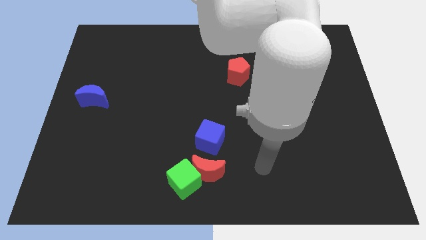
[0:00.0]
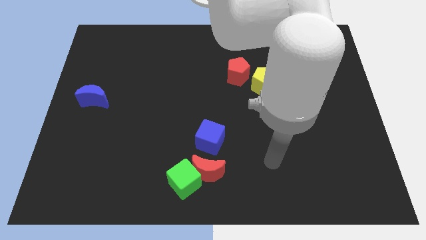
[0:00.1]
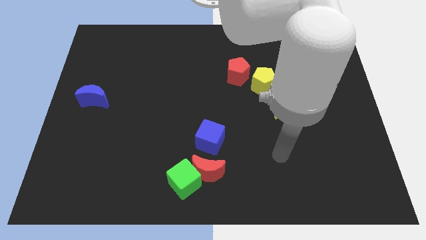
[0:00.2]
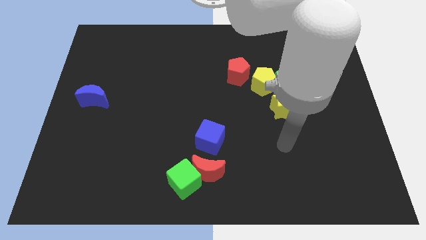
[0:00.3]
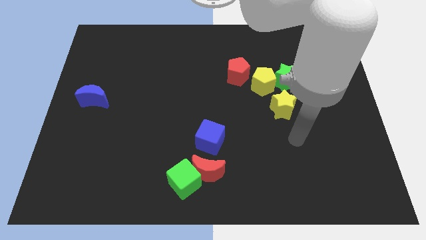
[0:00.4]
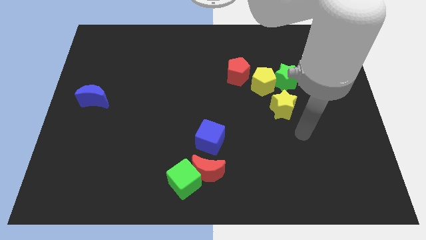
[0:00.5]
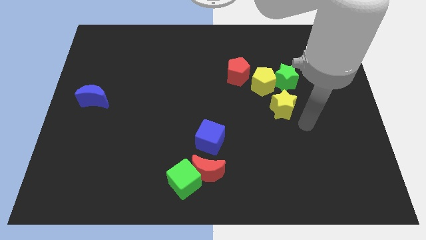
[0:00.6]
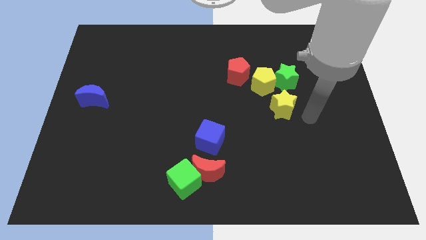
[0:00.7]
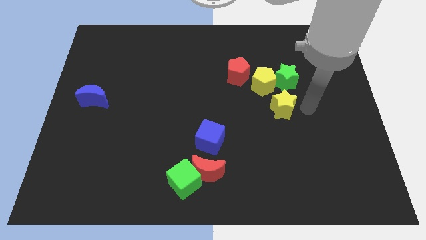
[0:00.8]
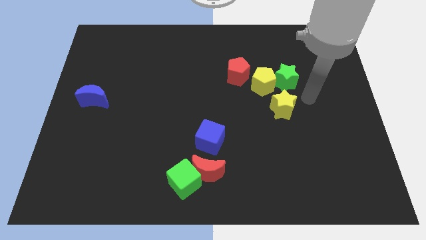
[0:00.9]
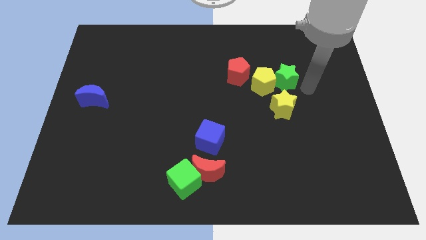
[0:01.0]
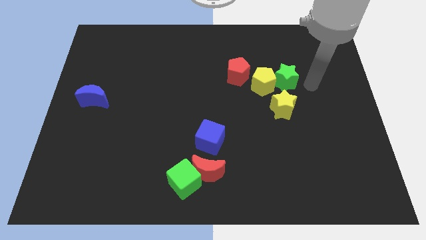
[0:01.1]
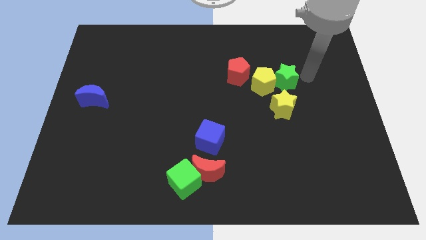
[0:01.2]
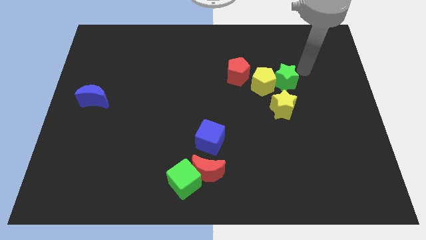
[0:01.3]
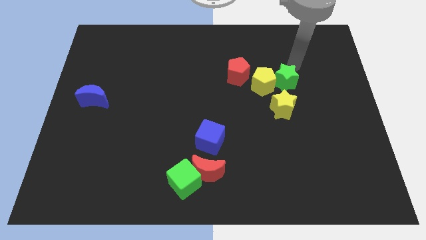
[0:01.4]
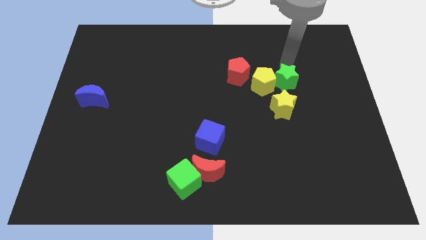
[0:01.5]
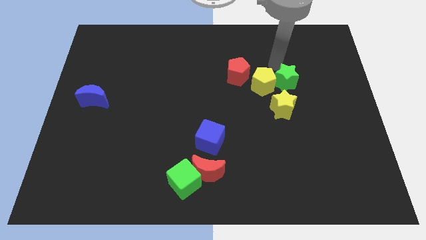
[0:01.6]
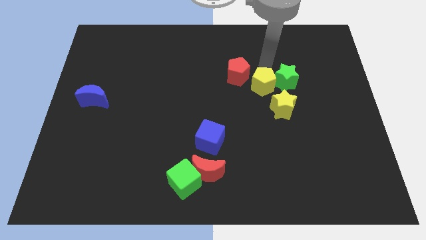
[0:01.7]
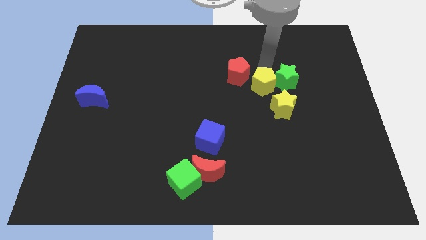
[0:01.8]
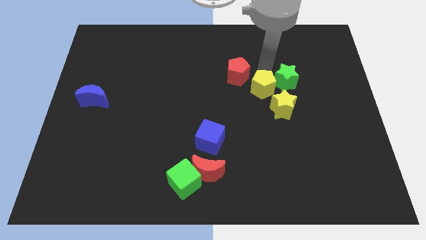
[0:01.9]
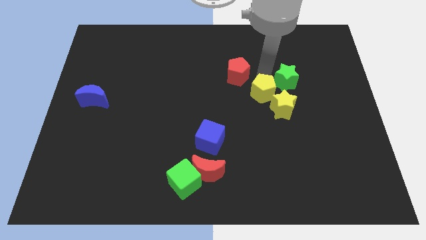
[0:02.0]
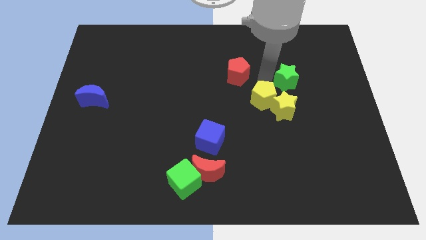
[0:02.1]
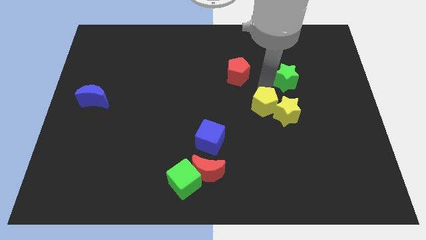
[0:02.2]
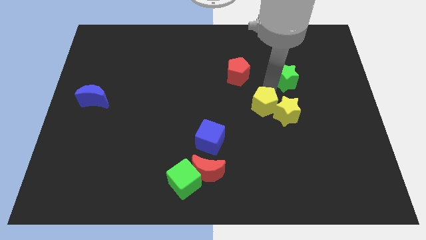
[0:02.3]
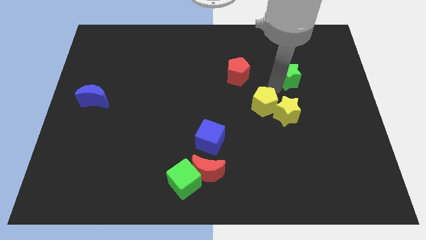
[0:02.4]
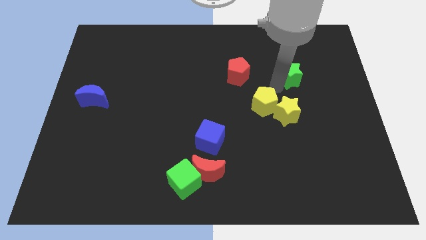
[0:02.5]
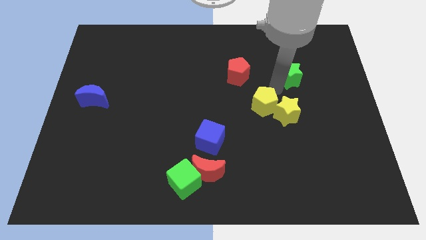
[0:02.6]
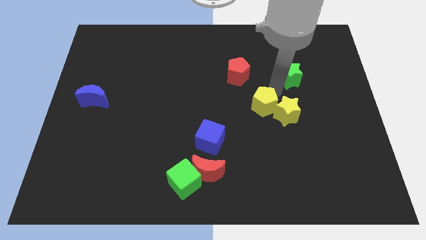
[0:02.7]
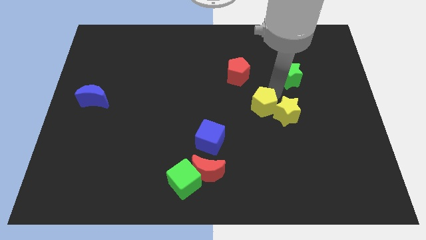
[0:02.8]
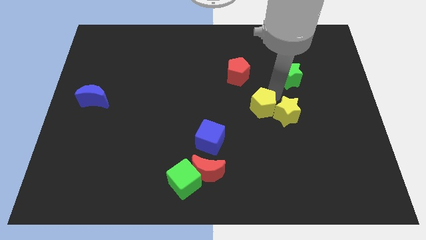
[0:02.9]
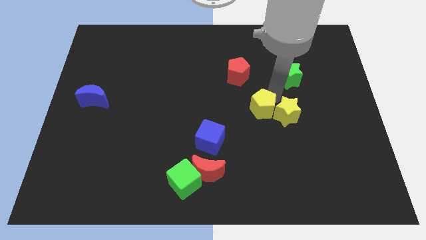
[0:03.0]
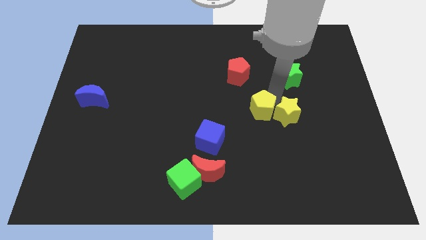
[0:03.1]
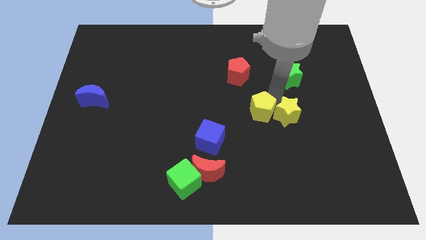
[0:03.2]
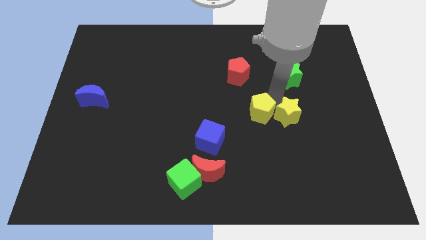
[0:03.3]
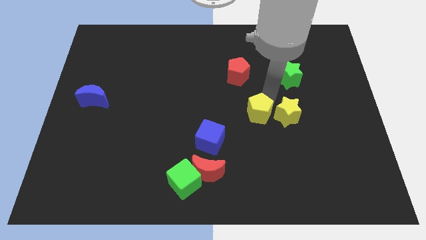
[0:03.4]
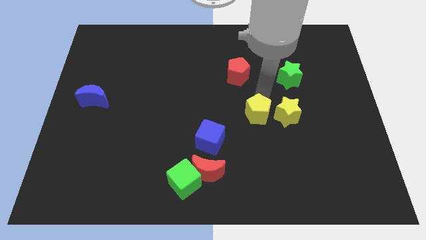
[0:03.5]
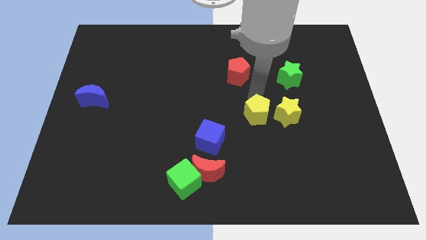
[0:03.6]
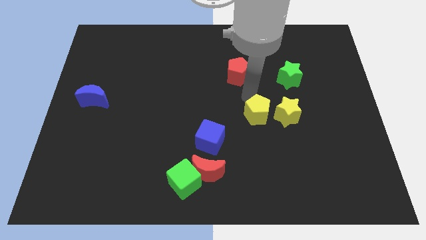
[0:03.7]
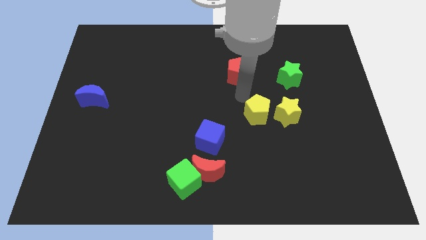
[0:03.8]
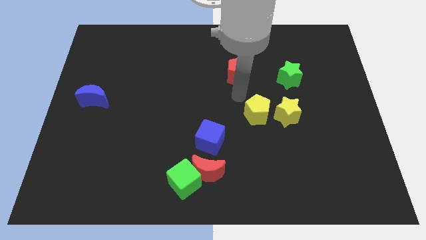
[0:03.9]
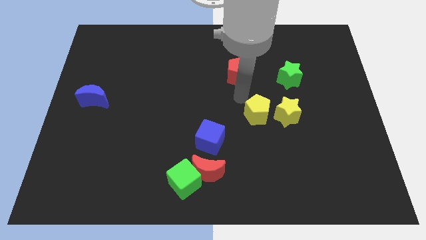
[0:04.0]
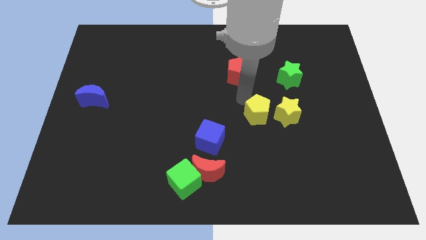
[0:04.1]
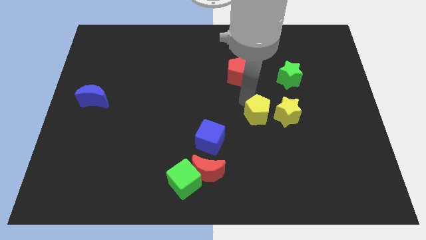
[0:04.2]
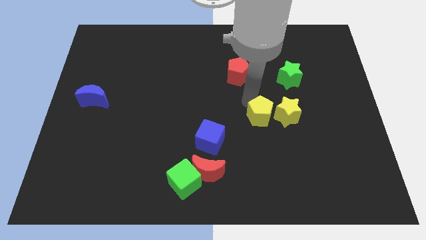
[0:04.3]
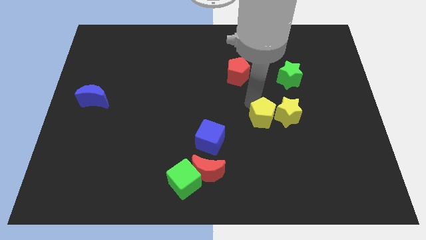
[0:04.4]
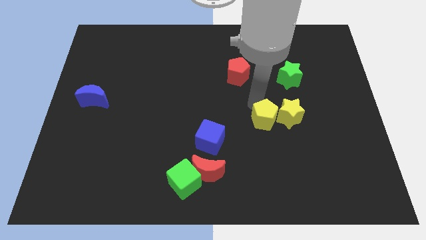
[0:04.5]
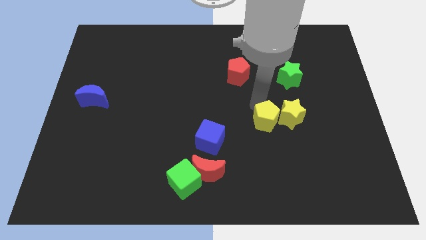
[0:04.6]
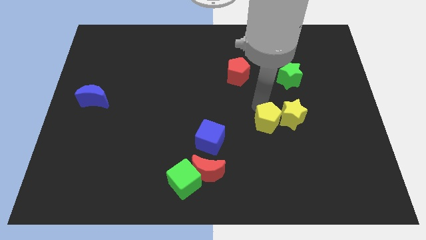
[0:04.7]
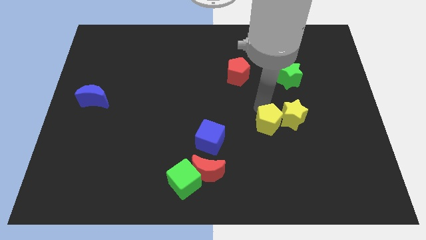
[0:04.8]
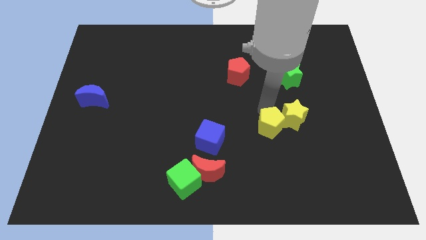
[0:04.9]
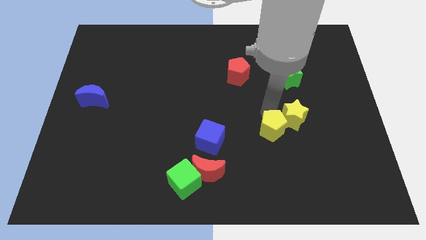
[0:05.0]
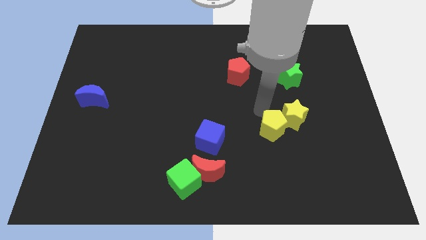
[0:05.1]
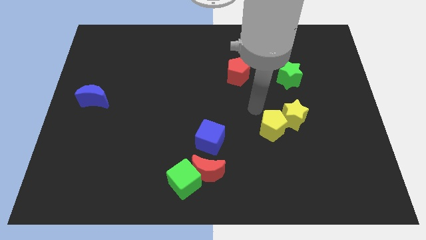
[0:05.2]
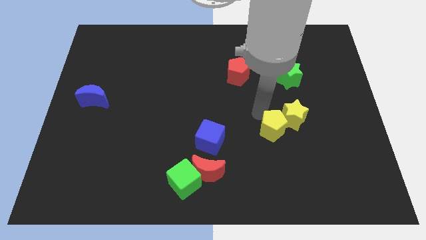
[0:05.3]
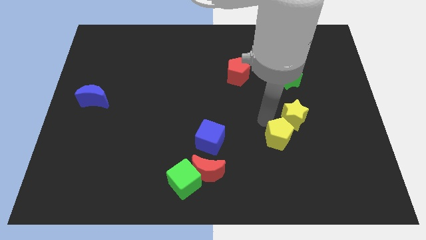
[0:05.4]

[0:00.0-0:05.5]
put the yellow pentagon to the bottom side of the yellow star

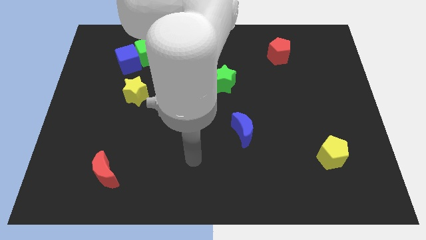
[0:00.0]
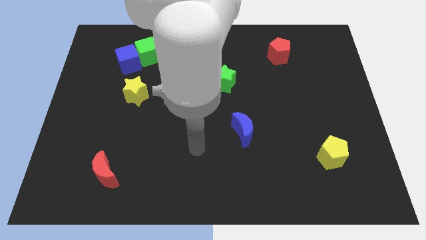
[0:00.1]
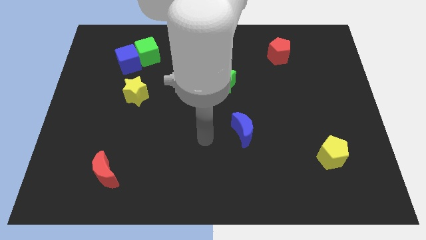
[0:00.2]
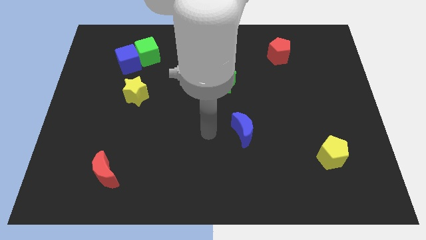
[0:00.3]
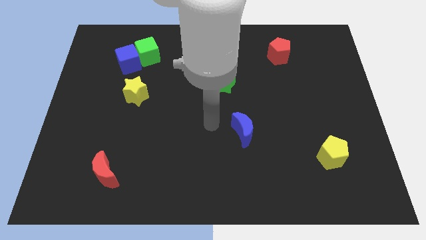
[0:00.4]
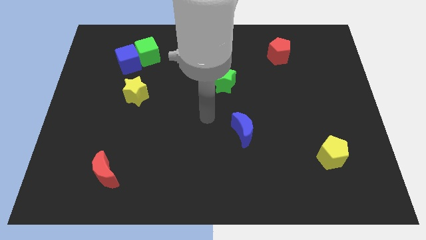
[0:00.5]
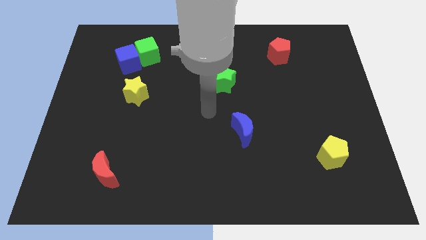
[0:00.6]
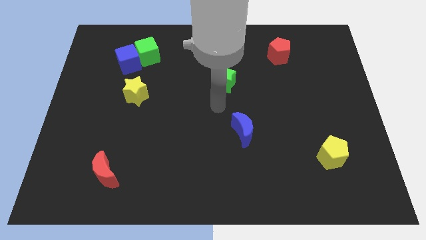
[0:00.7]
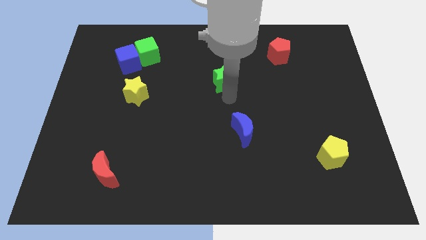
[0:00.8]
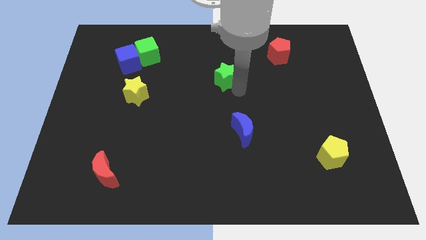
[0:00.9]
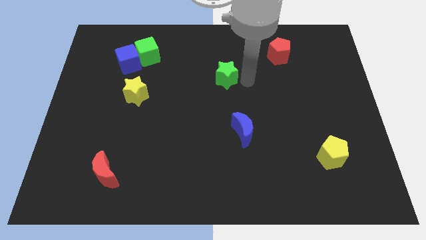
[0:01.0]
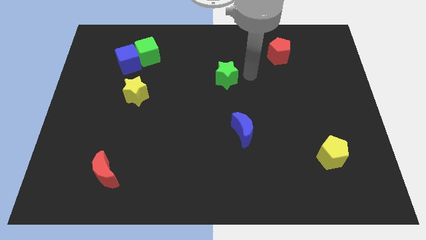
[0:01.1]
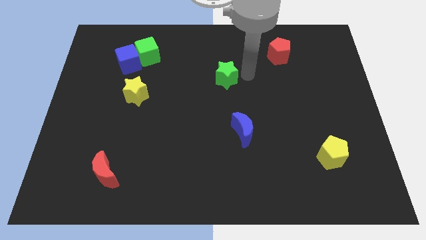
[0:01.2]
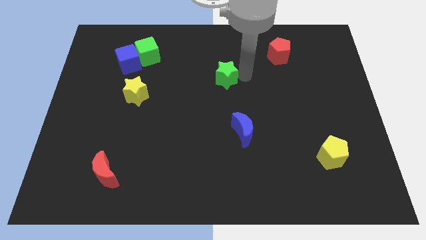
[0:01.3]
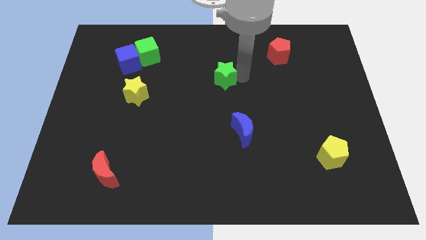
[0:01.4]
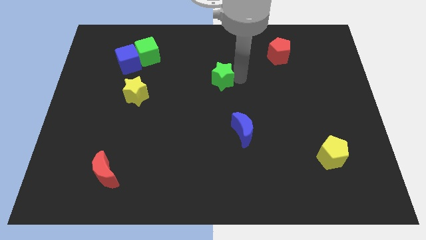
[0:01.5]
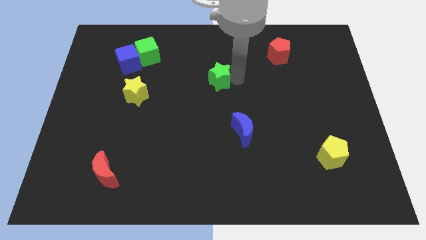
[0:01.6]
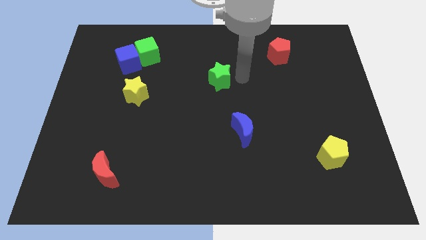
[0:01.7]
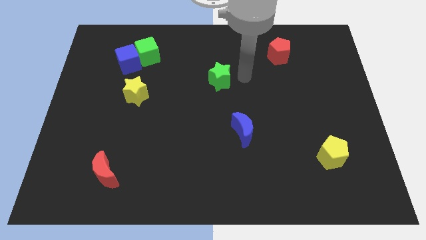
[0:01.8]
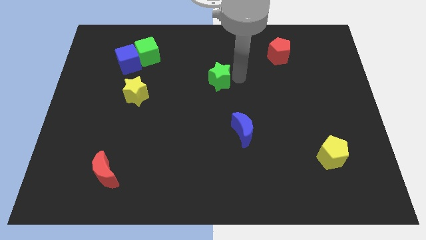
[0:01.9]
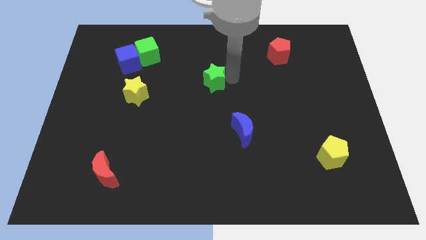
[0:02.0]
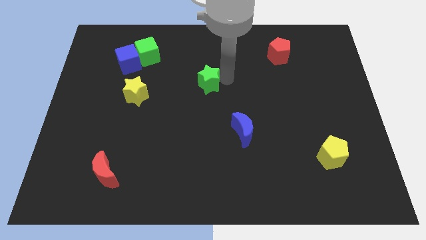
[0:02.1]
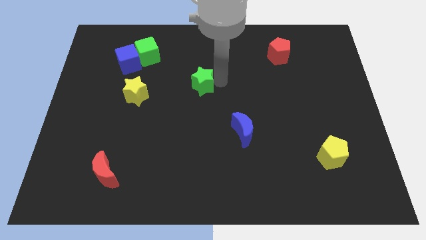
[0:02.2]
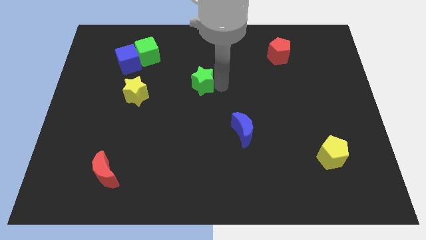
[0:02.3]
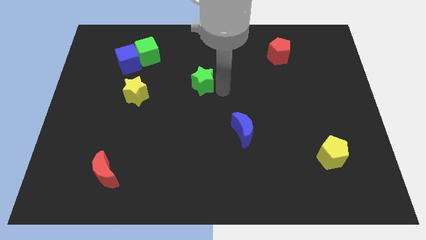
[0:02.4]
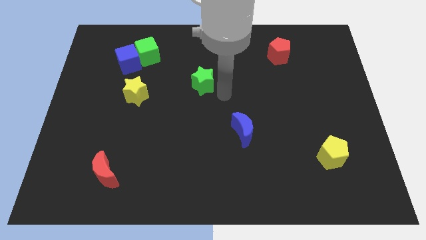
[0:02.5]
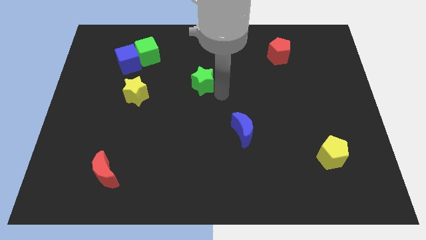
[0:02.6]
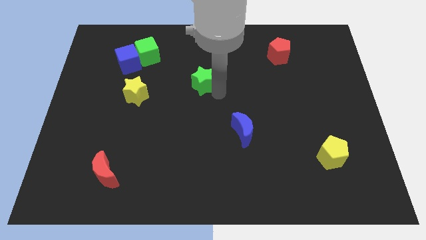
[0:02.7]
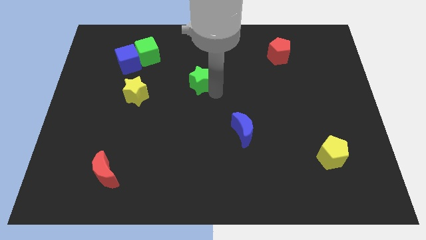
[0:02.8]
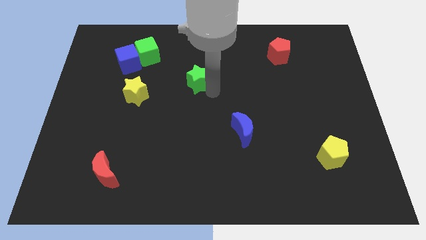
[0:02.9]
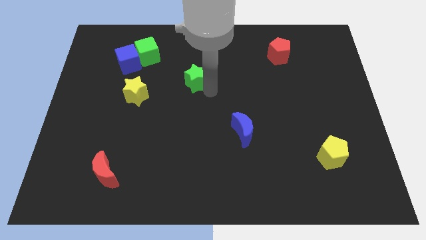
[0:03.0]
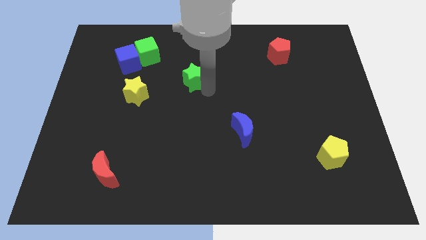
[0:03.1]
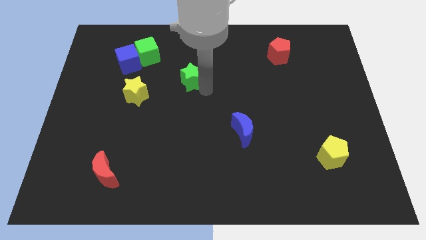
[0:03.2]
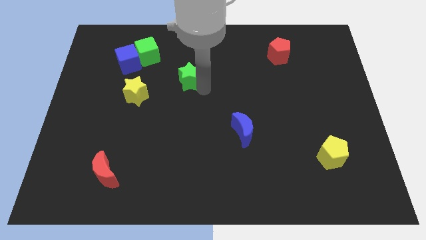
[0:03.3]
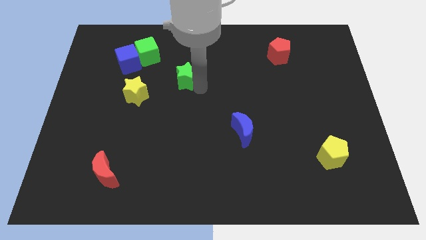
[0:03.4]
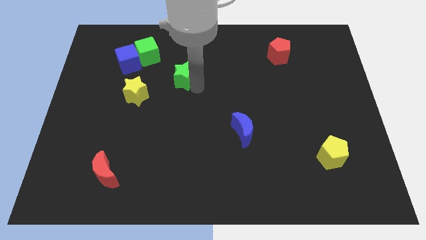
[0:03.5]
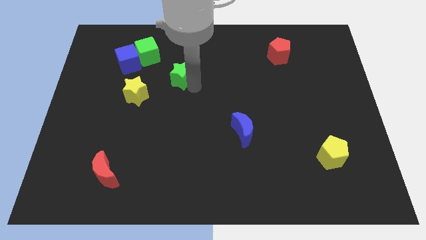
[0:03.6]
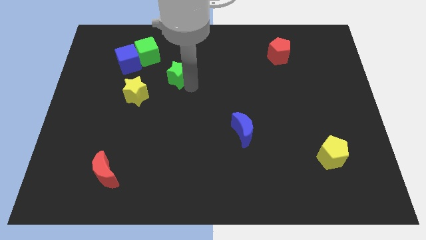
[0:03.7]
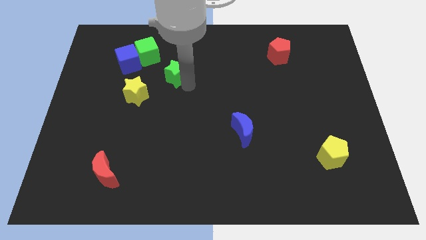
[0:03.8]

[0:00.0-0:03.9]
slide the green star right of the blue cube
